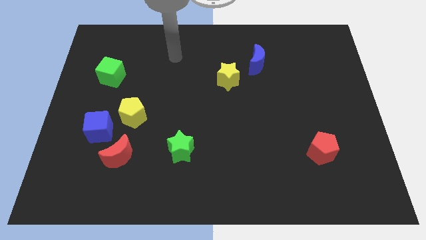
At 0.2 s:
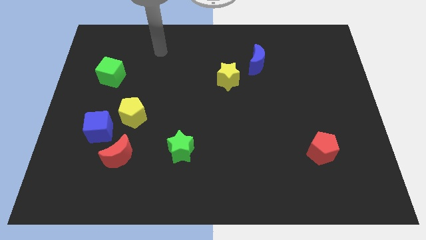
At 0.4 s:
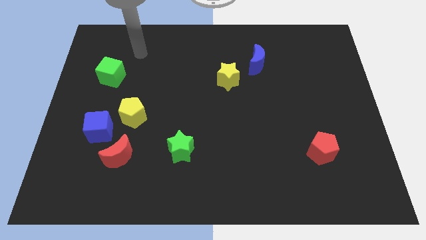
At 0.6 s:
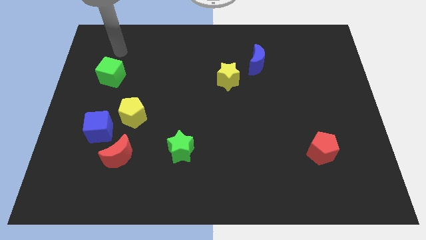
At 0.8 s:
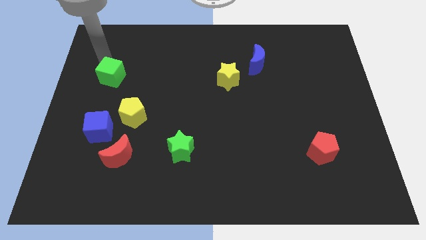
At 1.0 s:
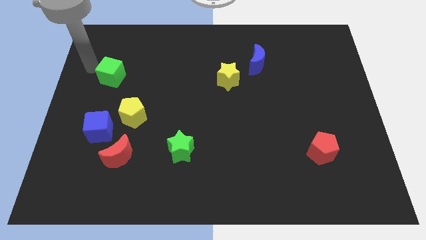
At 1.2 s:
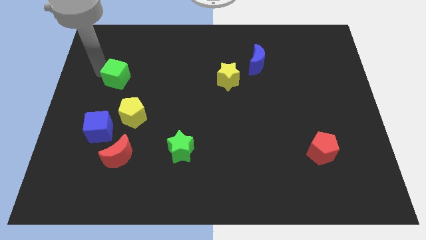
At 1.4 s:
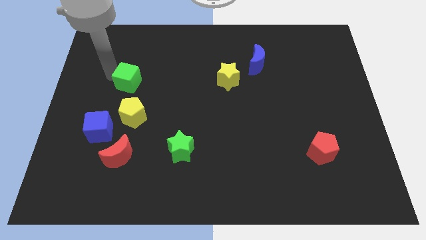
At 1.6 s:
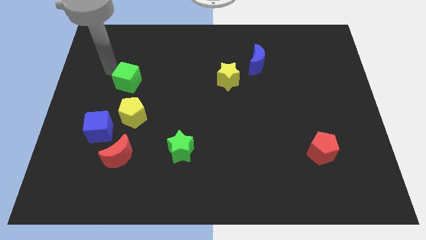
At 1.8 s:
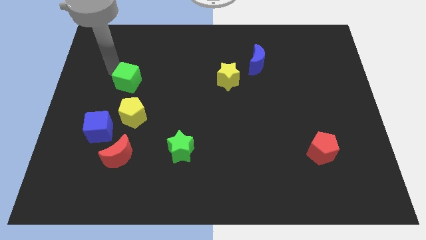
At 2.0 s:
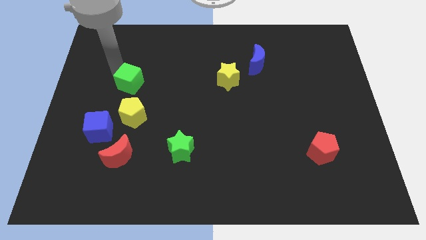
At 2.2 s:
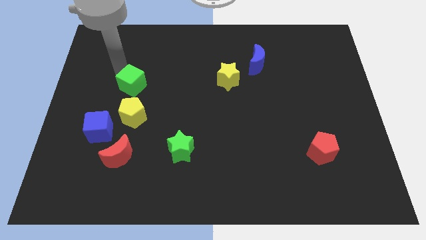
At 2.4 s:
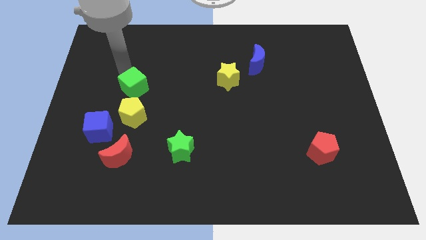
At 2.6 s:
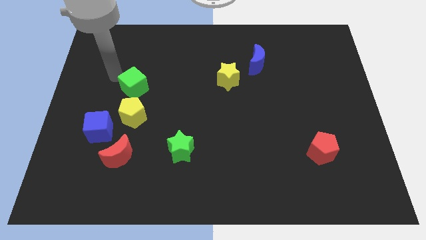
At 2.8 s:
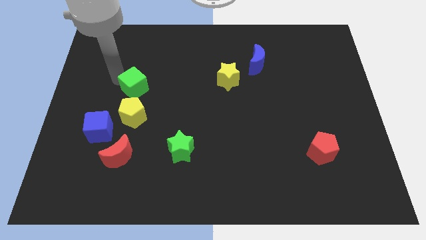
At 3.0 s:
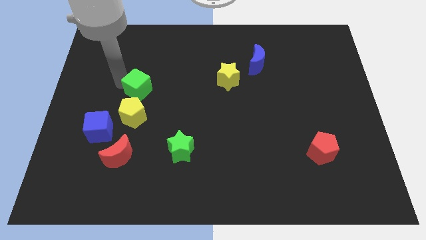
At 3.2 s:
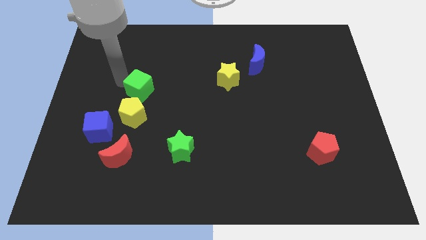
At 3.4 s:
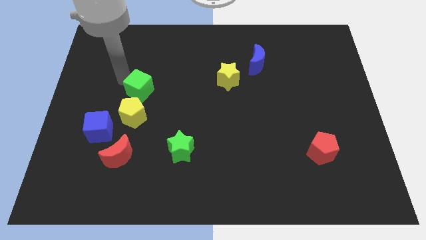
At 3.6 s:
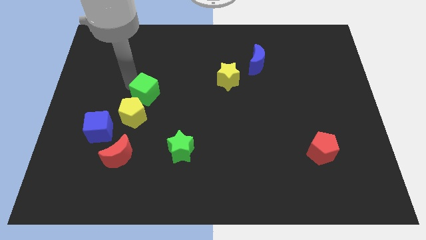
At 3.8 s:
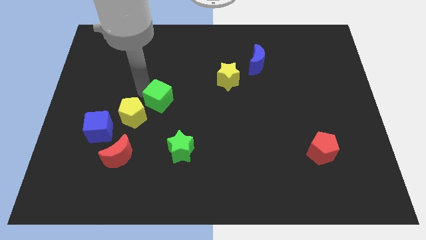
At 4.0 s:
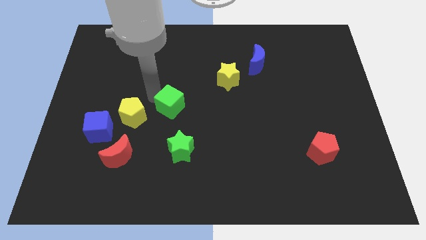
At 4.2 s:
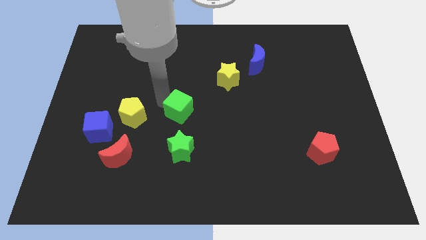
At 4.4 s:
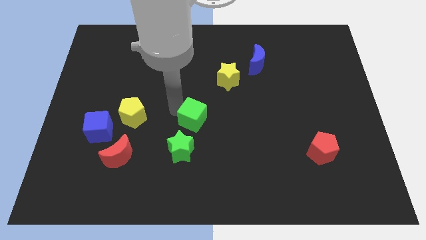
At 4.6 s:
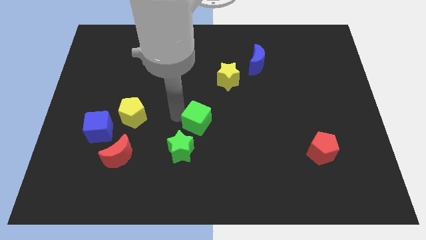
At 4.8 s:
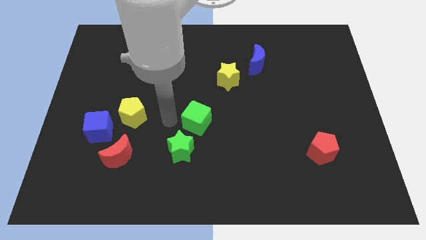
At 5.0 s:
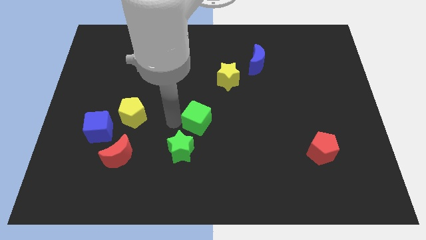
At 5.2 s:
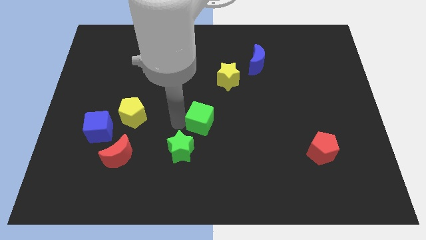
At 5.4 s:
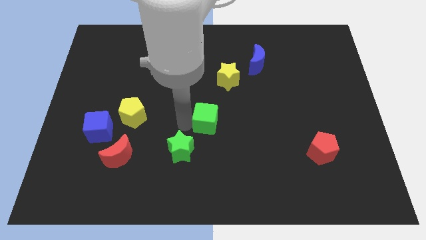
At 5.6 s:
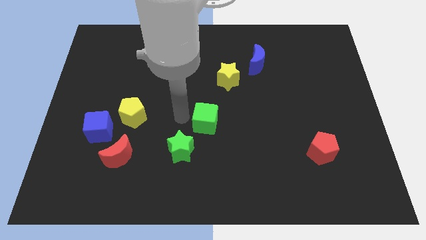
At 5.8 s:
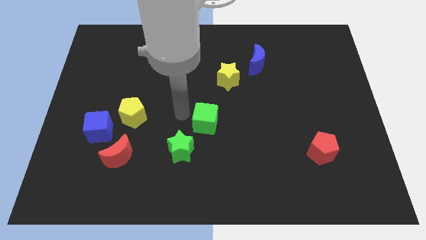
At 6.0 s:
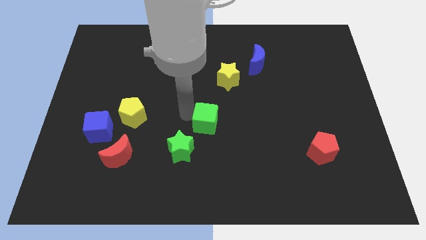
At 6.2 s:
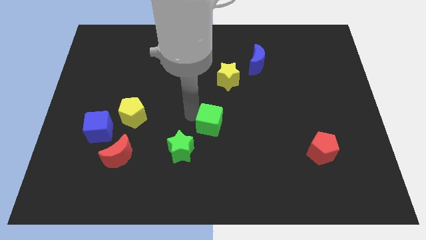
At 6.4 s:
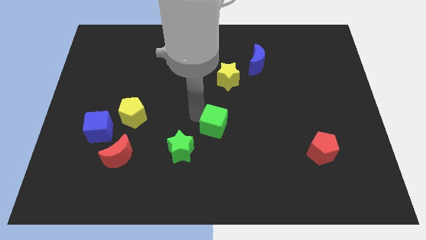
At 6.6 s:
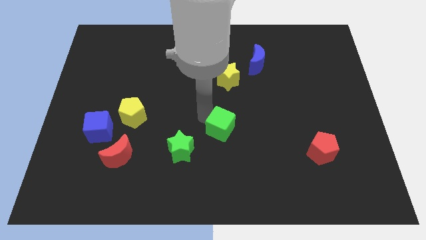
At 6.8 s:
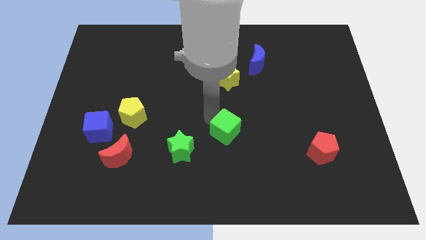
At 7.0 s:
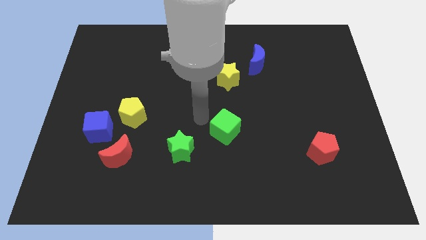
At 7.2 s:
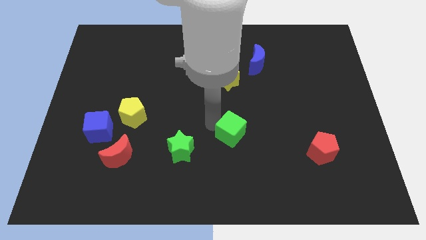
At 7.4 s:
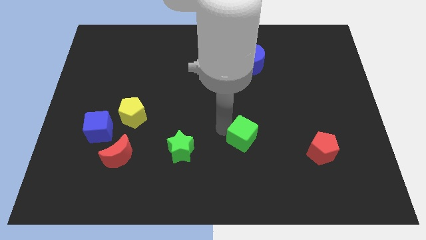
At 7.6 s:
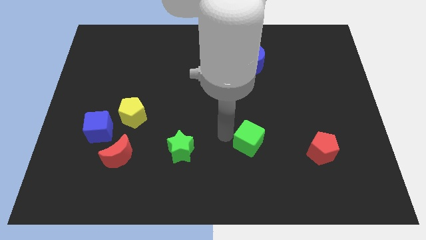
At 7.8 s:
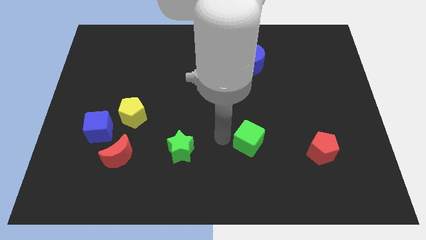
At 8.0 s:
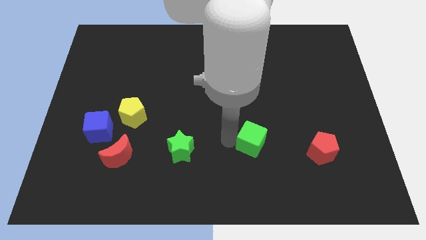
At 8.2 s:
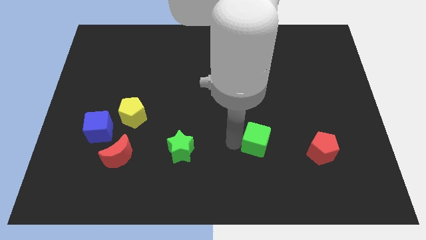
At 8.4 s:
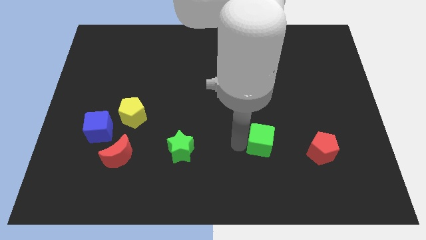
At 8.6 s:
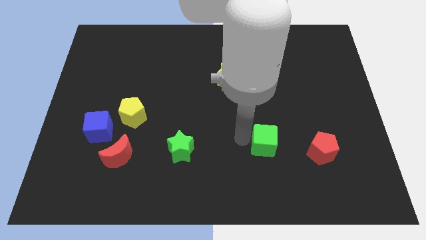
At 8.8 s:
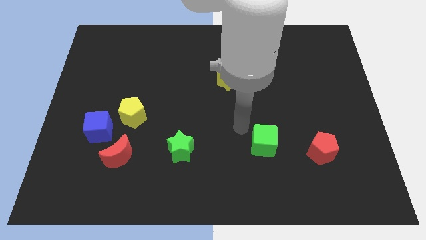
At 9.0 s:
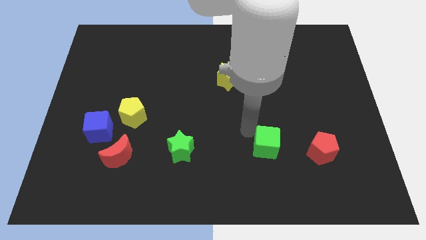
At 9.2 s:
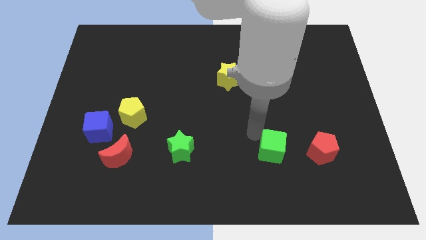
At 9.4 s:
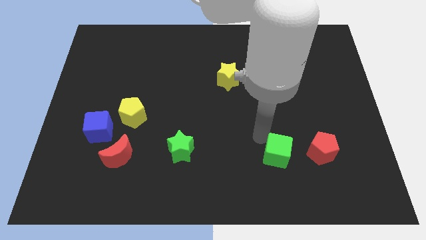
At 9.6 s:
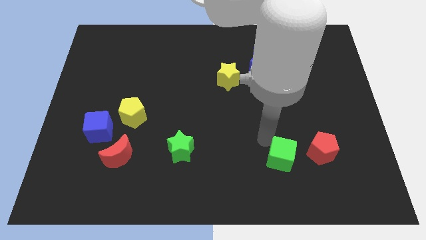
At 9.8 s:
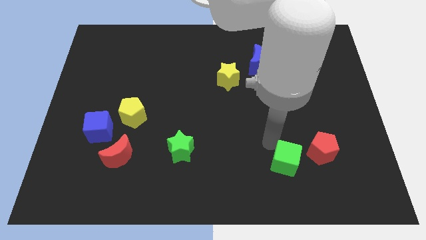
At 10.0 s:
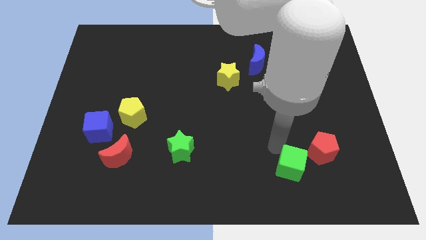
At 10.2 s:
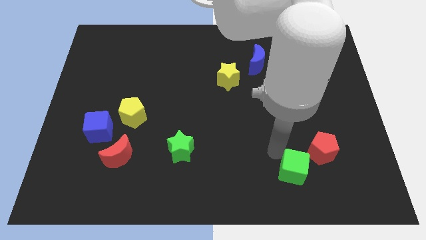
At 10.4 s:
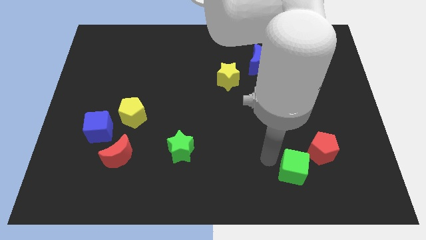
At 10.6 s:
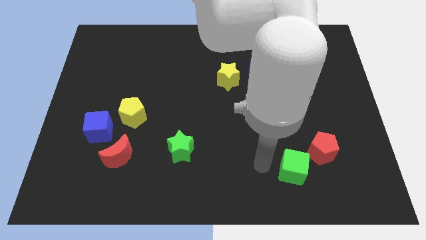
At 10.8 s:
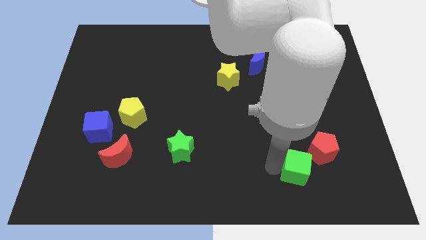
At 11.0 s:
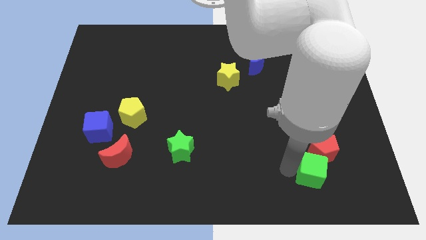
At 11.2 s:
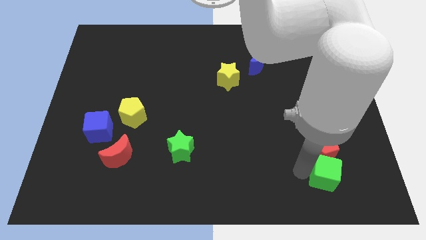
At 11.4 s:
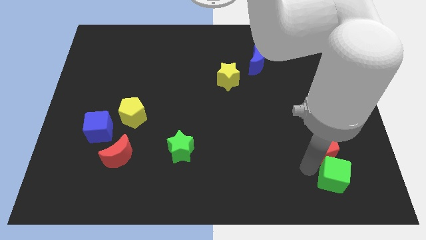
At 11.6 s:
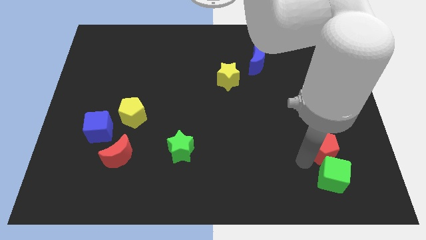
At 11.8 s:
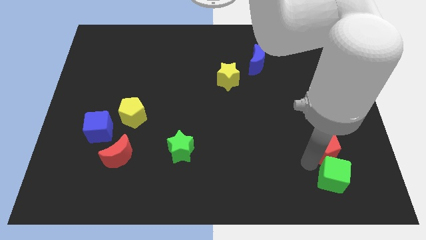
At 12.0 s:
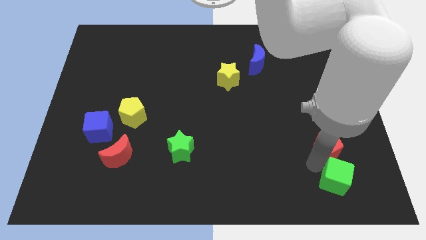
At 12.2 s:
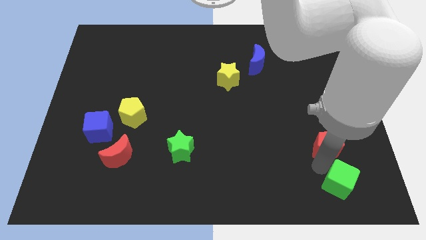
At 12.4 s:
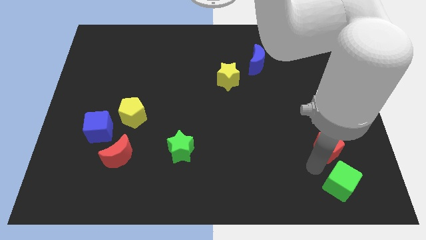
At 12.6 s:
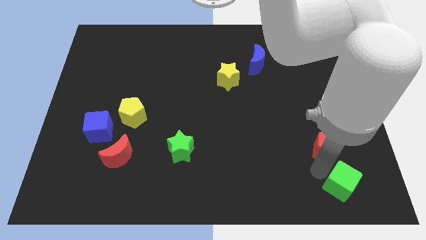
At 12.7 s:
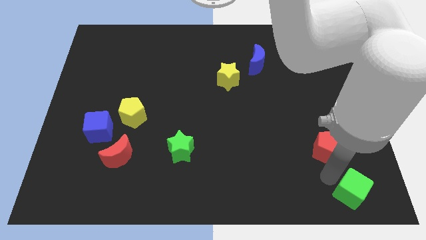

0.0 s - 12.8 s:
push the green cube to the bottom right

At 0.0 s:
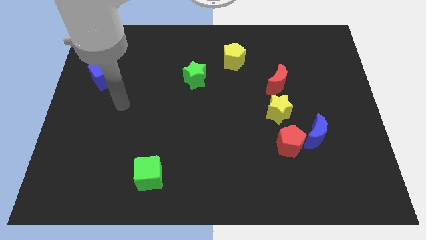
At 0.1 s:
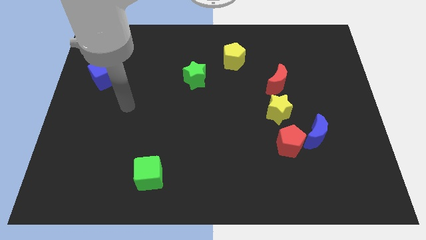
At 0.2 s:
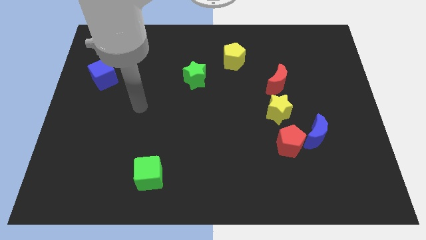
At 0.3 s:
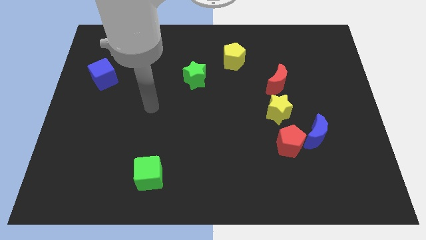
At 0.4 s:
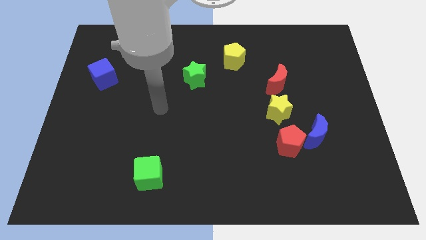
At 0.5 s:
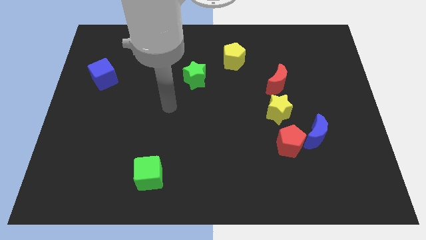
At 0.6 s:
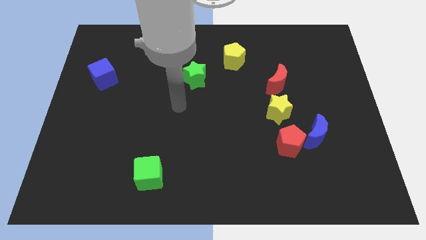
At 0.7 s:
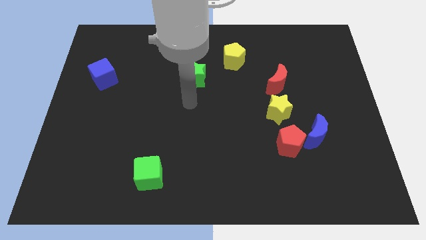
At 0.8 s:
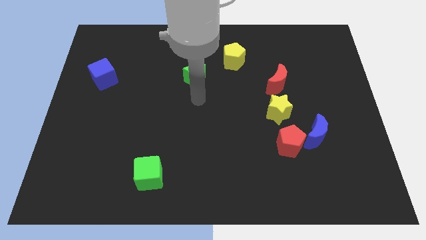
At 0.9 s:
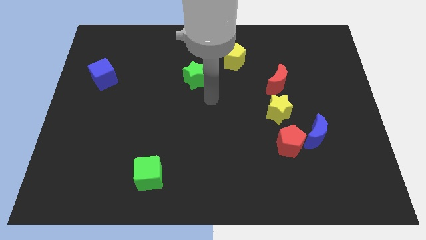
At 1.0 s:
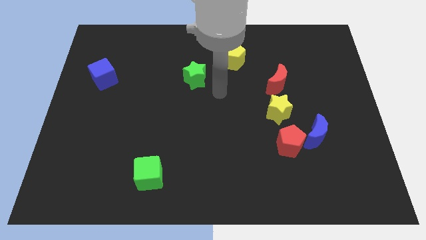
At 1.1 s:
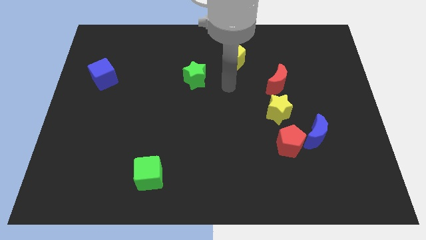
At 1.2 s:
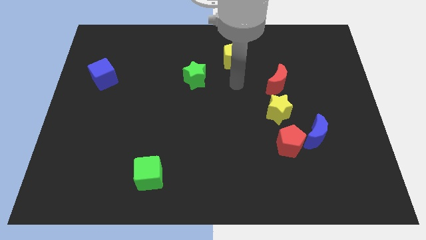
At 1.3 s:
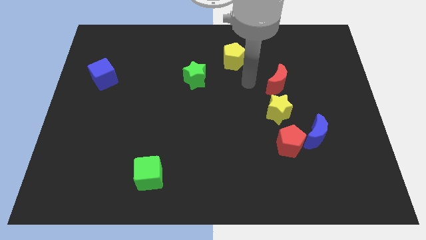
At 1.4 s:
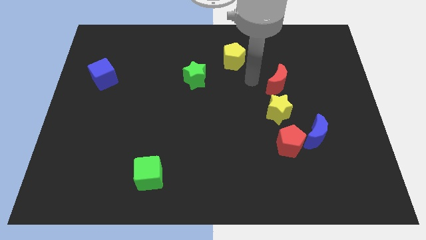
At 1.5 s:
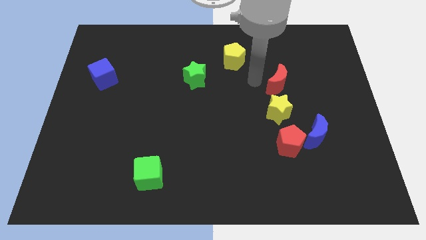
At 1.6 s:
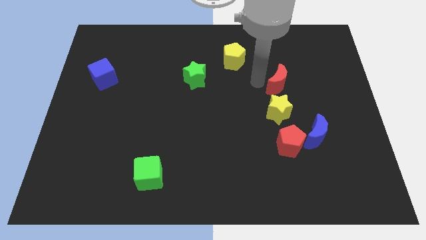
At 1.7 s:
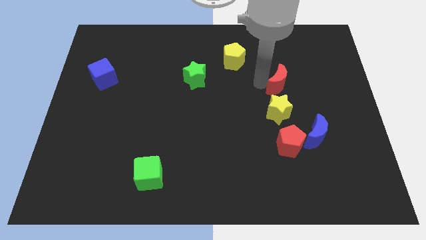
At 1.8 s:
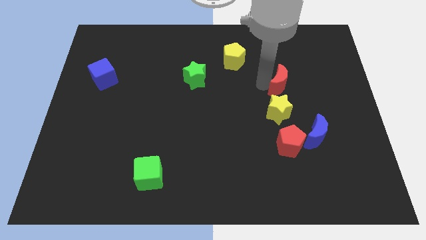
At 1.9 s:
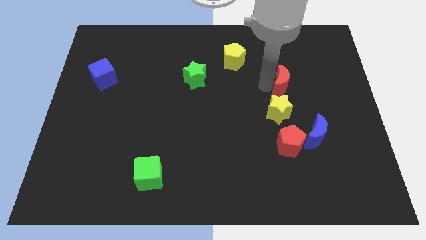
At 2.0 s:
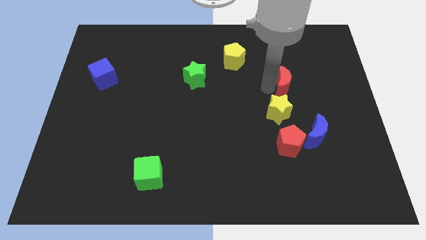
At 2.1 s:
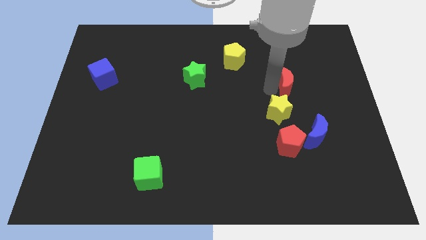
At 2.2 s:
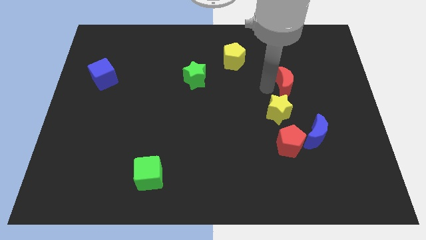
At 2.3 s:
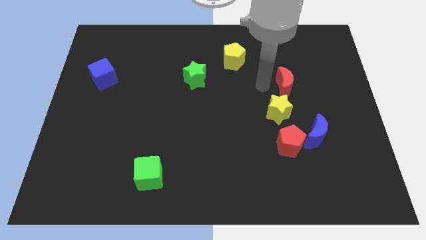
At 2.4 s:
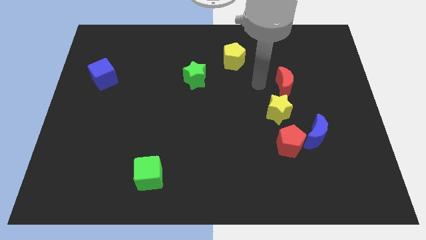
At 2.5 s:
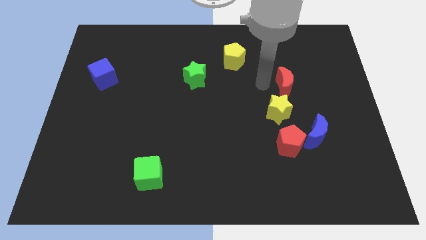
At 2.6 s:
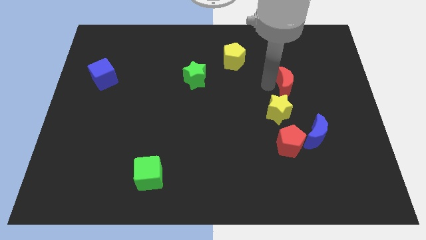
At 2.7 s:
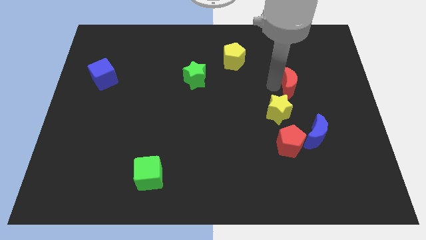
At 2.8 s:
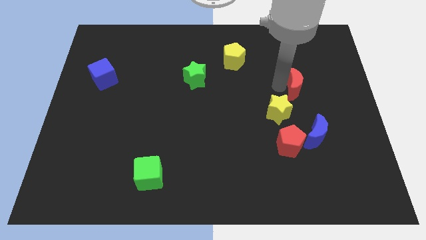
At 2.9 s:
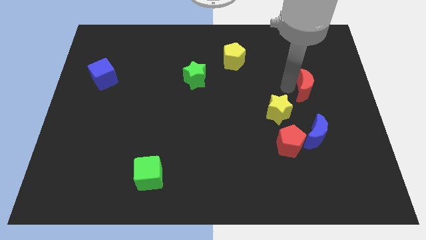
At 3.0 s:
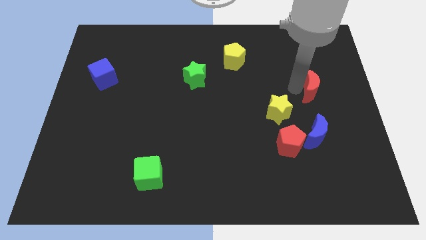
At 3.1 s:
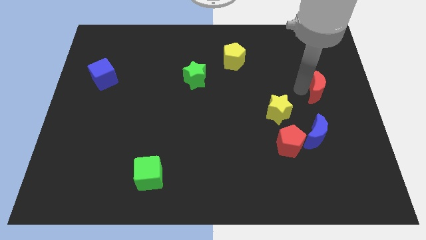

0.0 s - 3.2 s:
move the red moon to the right side
